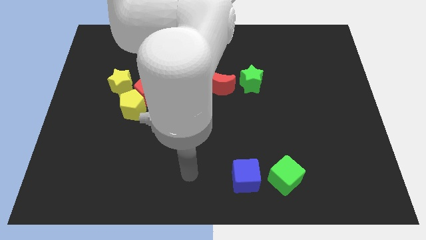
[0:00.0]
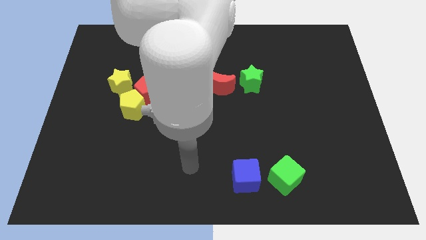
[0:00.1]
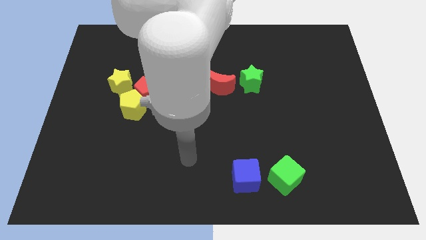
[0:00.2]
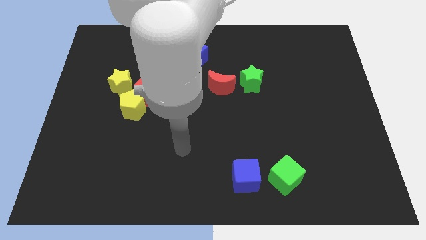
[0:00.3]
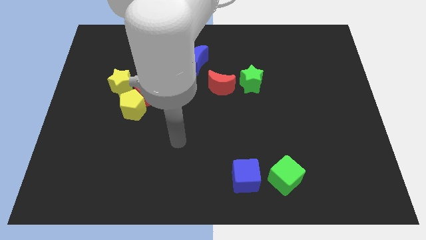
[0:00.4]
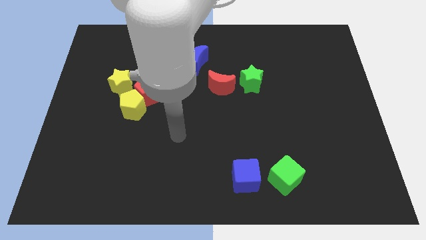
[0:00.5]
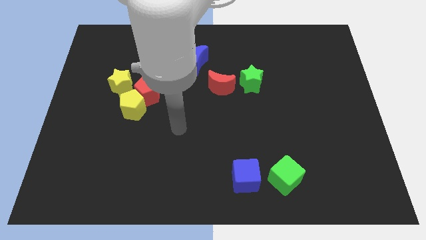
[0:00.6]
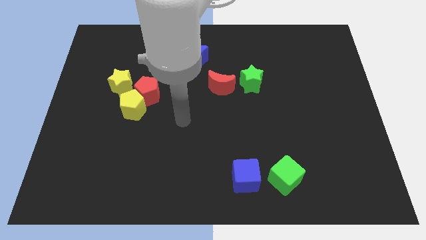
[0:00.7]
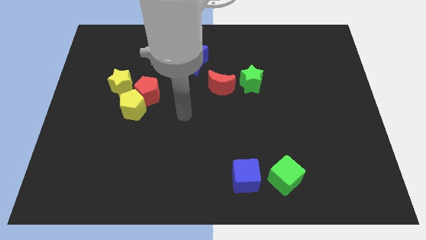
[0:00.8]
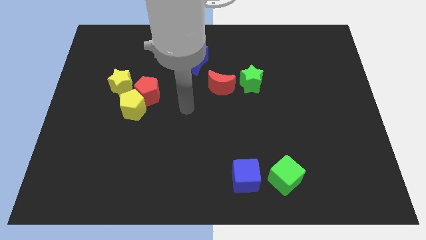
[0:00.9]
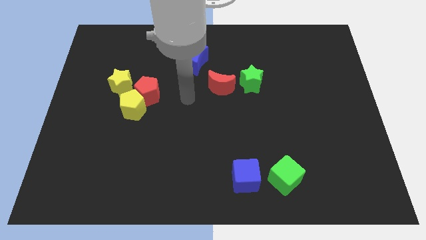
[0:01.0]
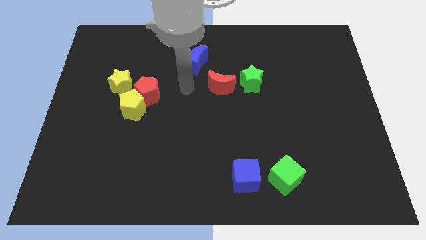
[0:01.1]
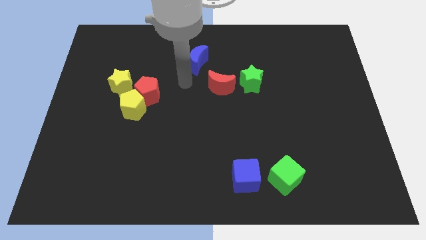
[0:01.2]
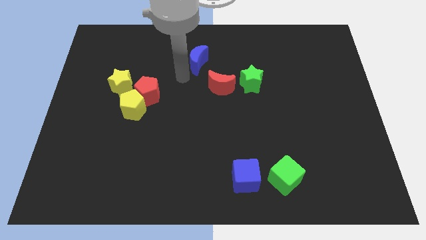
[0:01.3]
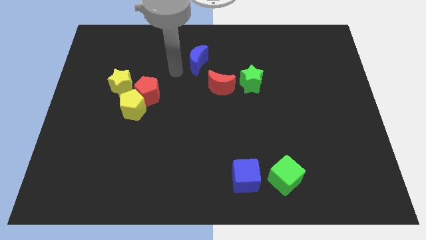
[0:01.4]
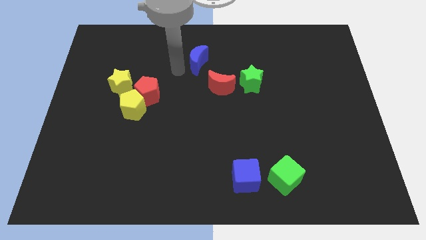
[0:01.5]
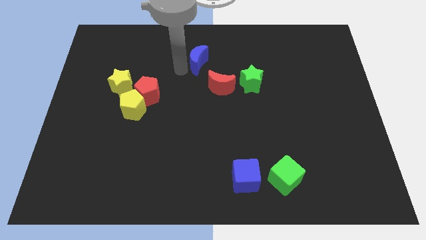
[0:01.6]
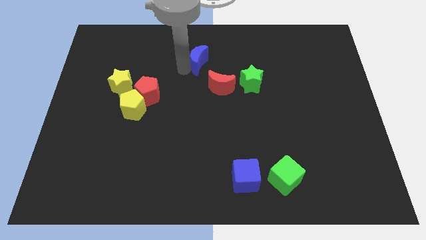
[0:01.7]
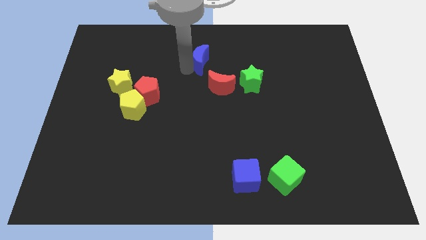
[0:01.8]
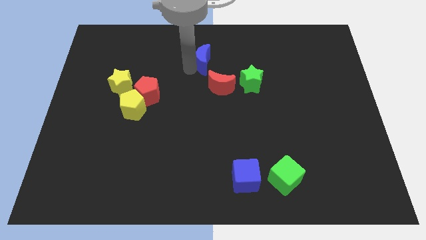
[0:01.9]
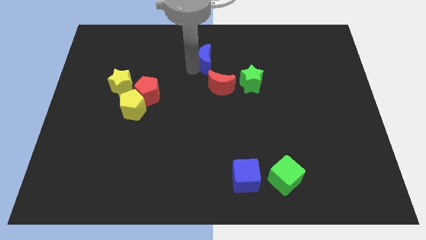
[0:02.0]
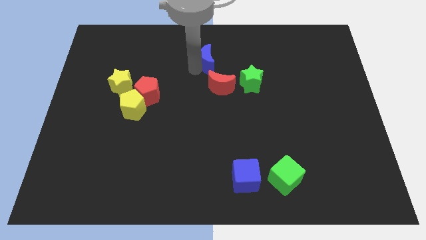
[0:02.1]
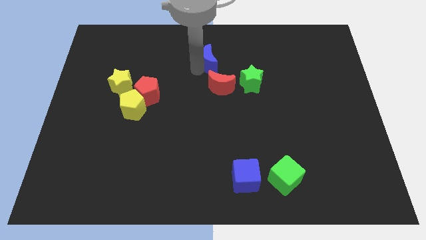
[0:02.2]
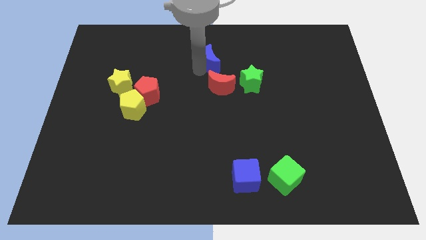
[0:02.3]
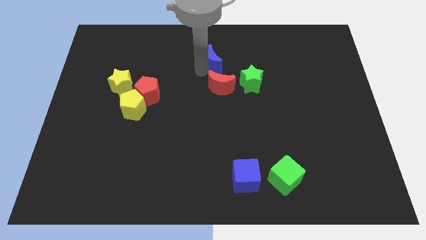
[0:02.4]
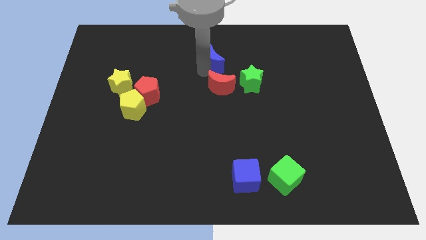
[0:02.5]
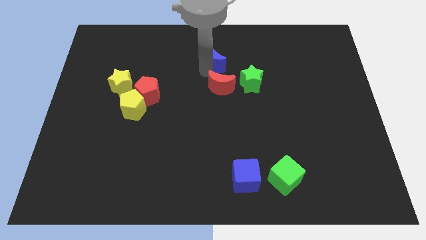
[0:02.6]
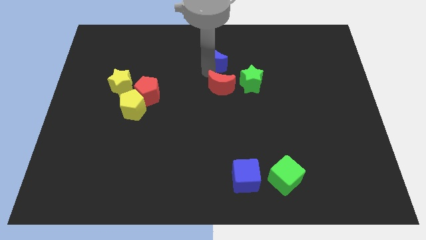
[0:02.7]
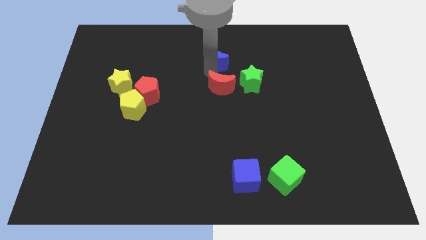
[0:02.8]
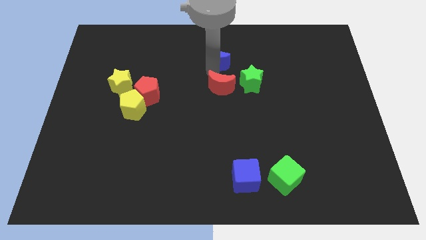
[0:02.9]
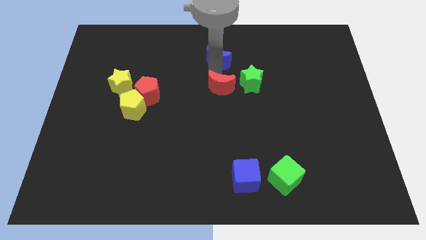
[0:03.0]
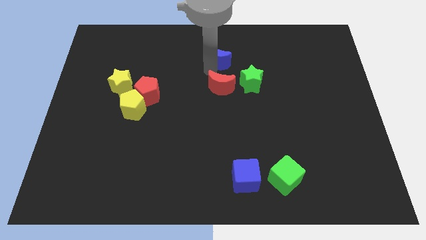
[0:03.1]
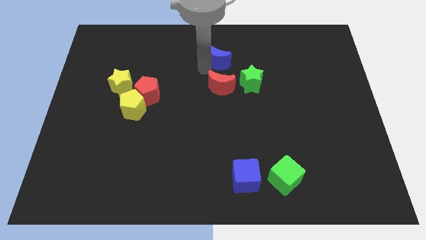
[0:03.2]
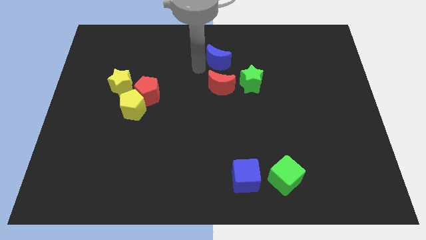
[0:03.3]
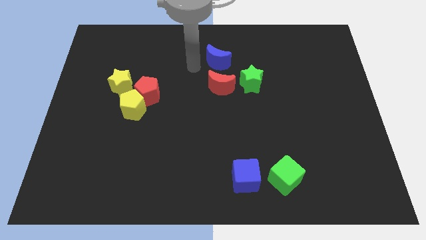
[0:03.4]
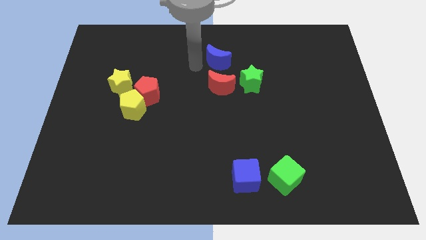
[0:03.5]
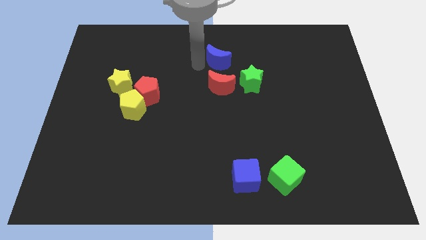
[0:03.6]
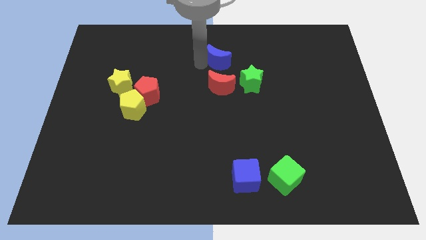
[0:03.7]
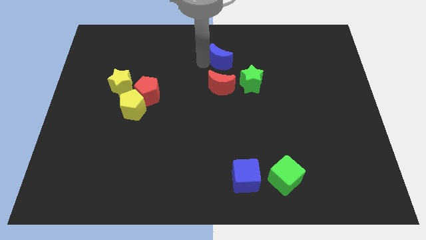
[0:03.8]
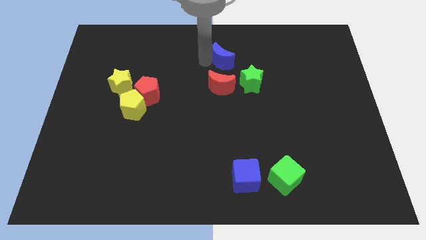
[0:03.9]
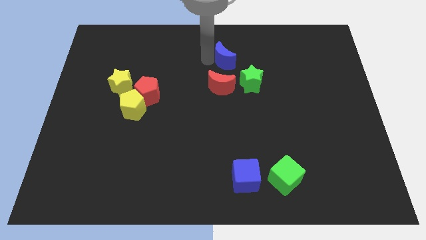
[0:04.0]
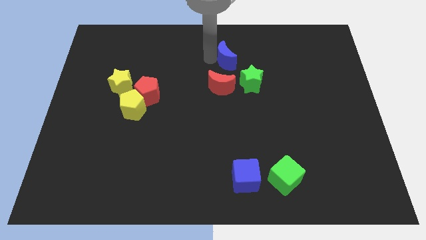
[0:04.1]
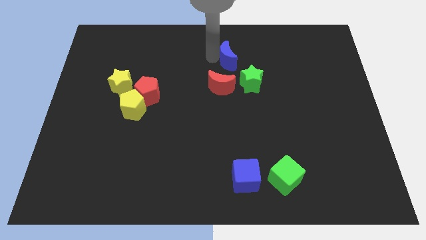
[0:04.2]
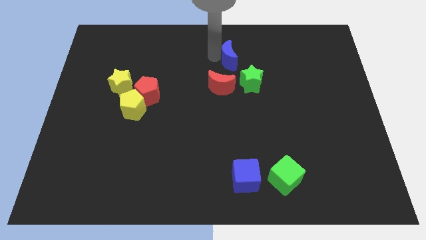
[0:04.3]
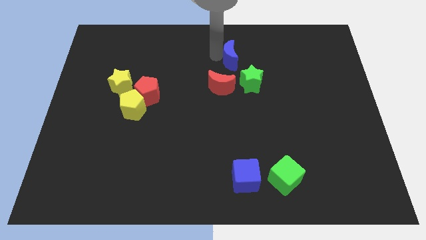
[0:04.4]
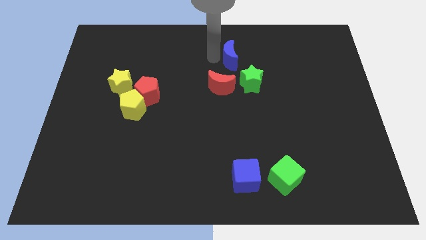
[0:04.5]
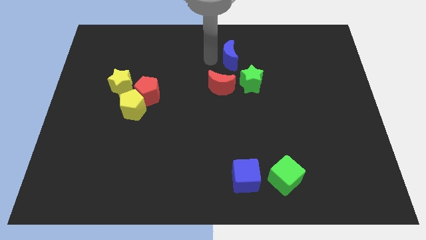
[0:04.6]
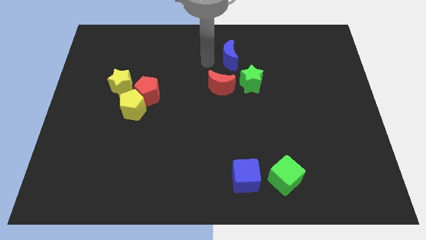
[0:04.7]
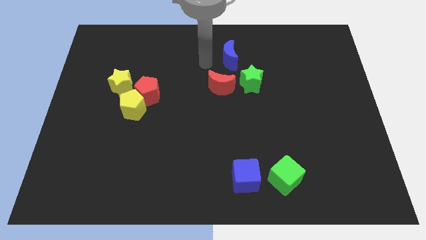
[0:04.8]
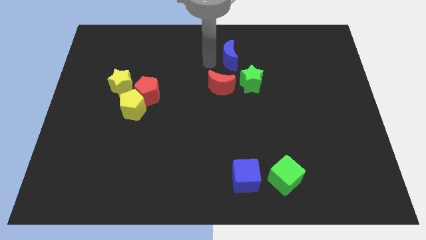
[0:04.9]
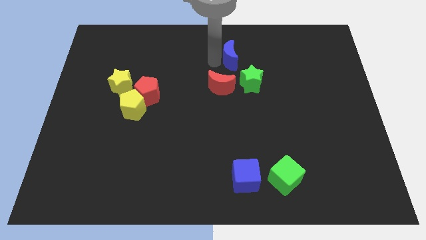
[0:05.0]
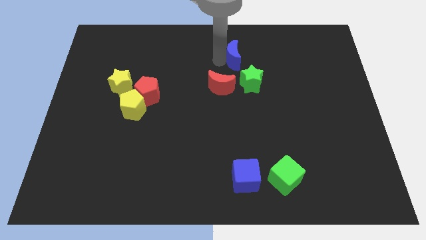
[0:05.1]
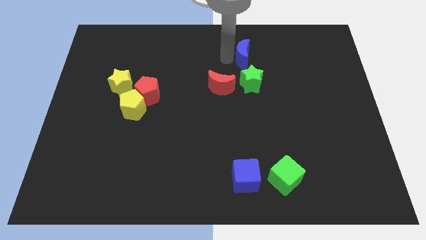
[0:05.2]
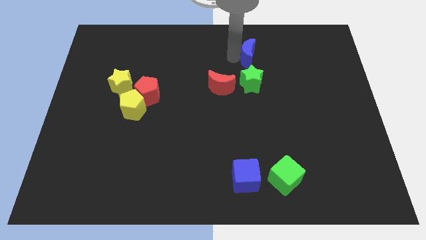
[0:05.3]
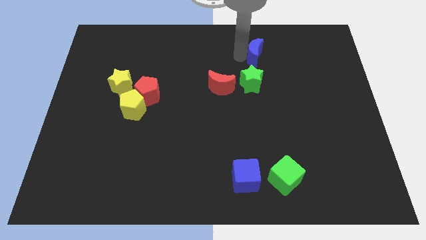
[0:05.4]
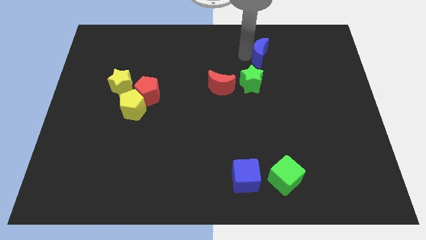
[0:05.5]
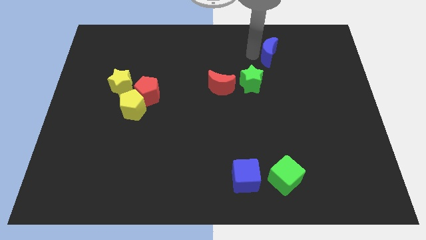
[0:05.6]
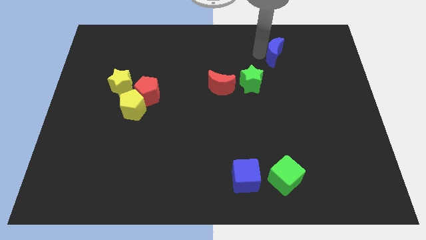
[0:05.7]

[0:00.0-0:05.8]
slide the blue moon right

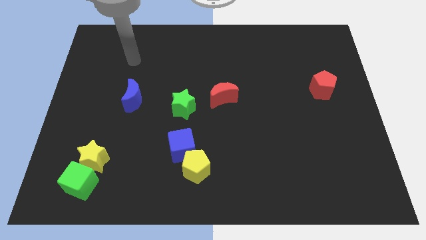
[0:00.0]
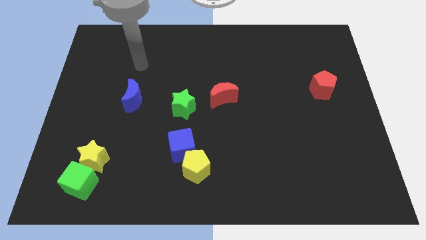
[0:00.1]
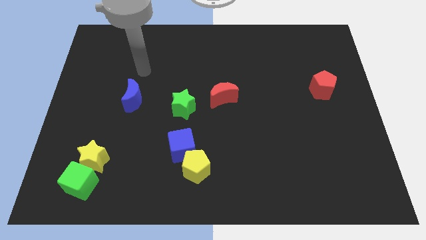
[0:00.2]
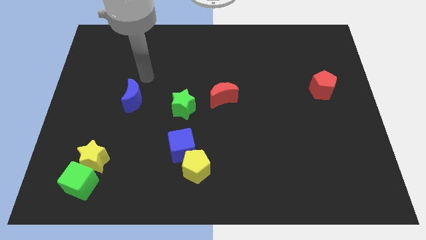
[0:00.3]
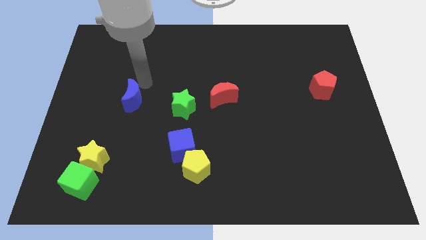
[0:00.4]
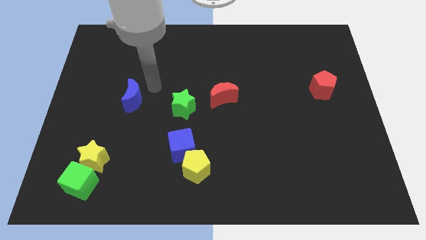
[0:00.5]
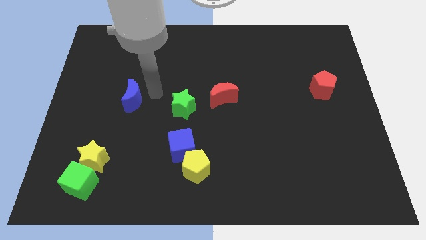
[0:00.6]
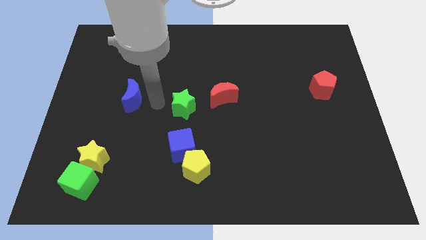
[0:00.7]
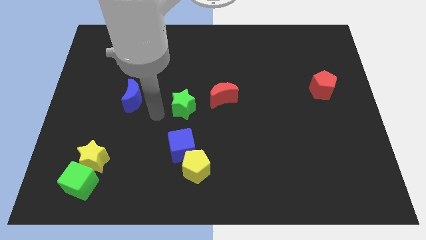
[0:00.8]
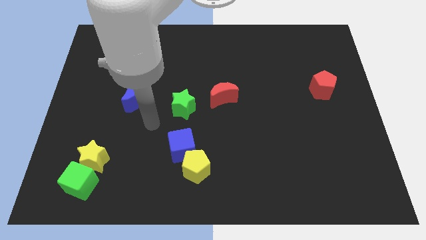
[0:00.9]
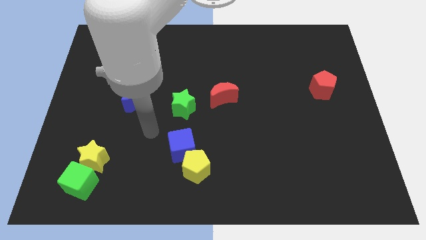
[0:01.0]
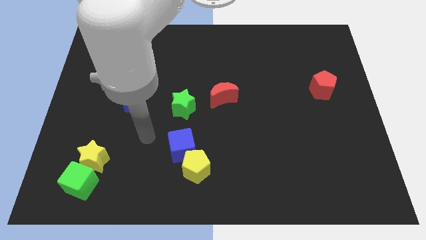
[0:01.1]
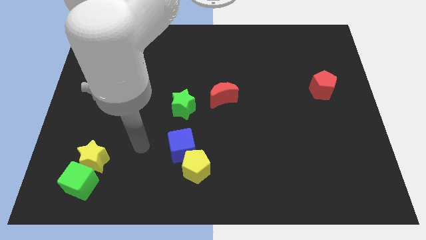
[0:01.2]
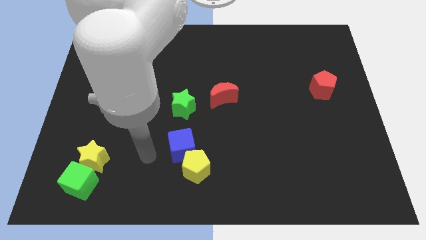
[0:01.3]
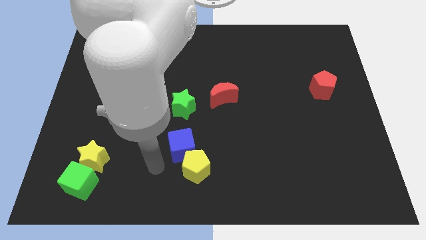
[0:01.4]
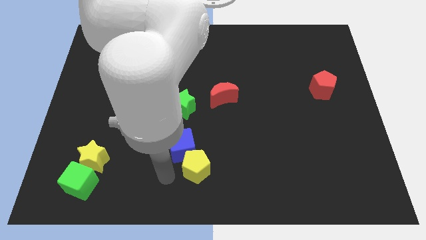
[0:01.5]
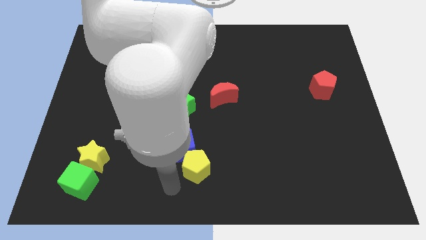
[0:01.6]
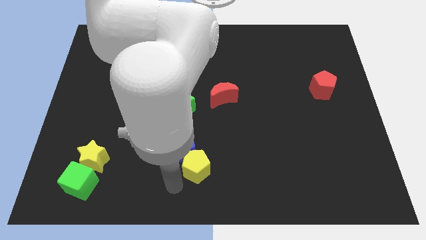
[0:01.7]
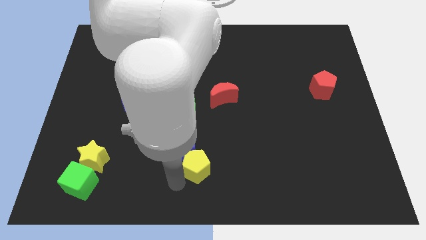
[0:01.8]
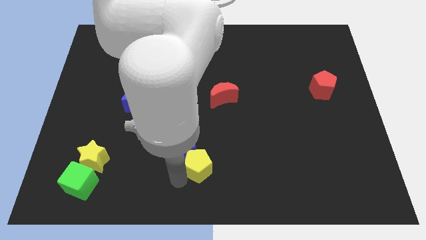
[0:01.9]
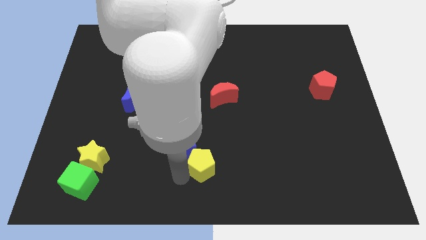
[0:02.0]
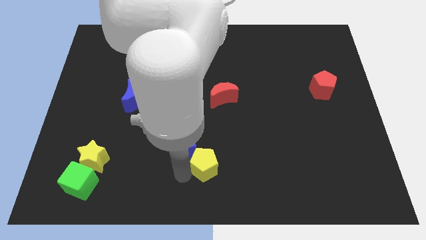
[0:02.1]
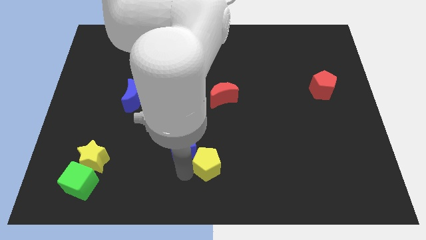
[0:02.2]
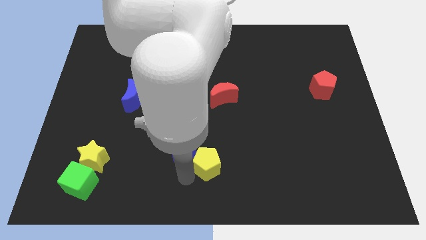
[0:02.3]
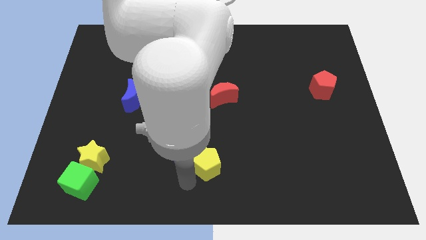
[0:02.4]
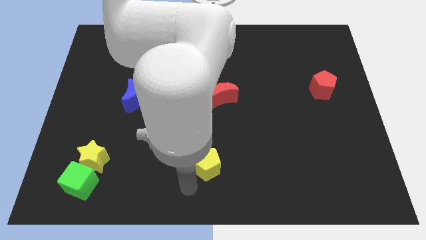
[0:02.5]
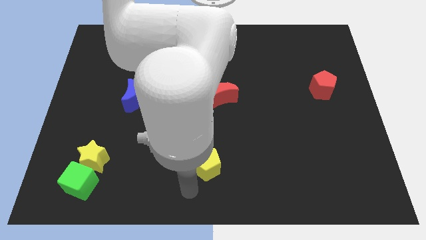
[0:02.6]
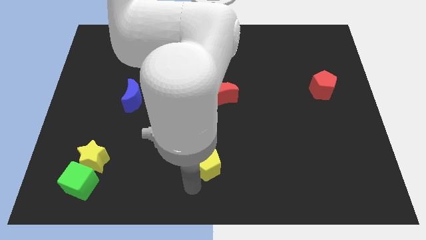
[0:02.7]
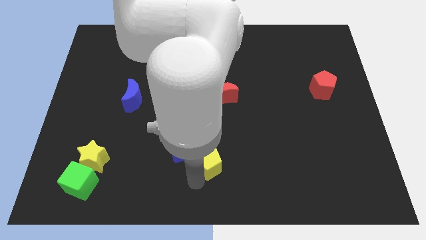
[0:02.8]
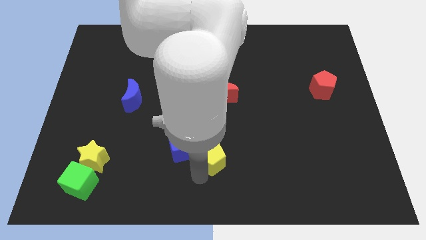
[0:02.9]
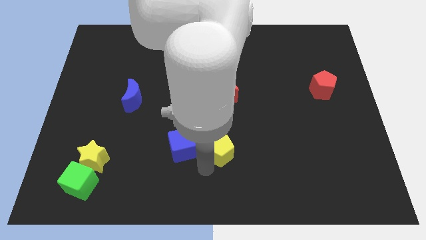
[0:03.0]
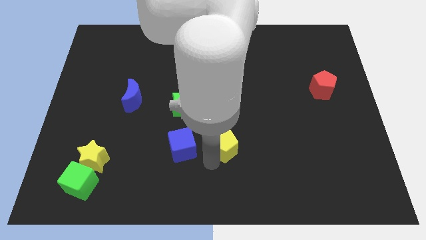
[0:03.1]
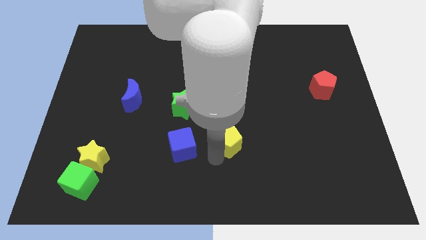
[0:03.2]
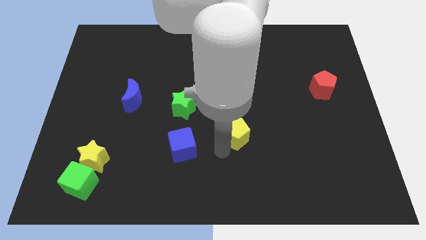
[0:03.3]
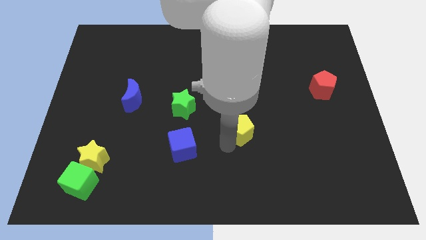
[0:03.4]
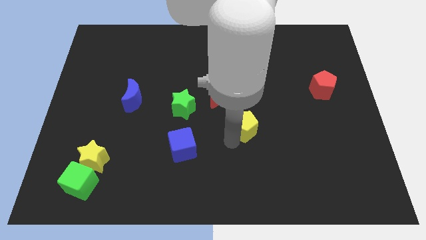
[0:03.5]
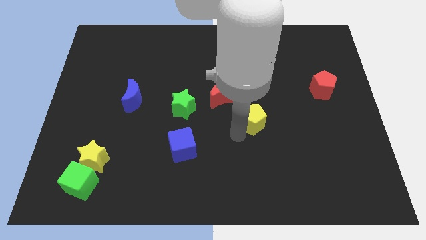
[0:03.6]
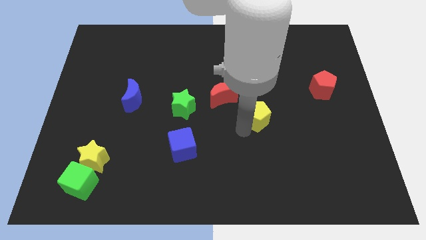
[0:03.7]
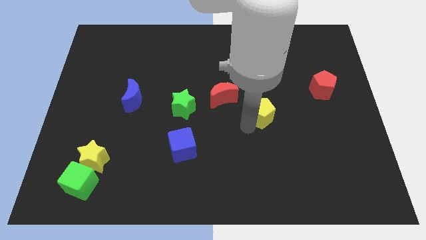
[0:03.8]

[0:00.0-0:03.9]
slide the yellow pentagon up and then to the right
